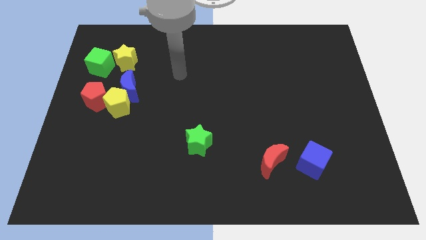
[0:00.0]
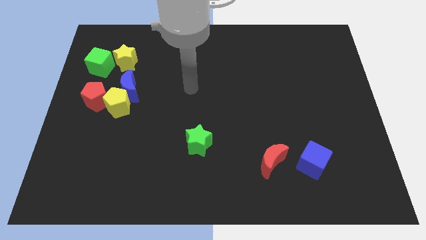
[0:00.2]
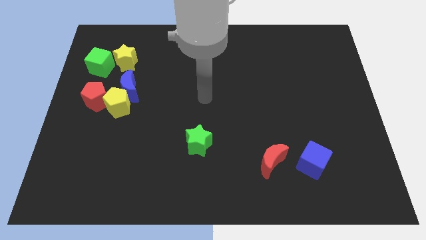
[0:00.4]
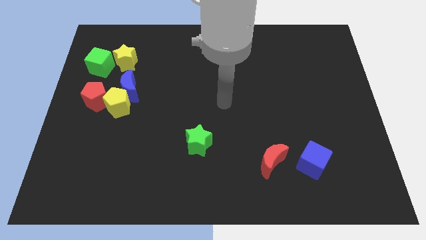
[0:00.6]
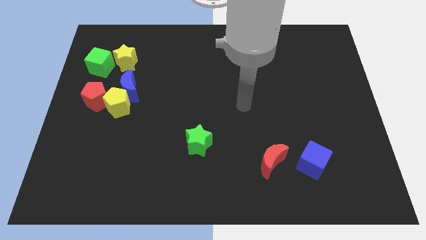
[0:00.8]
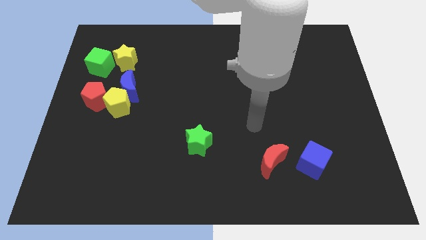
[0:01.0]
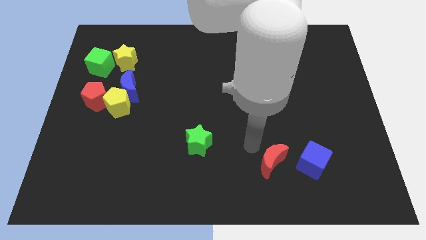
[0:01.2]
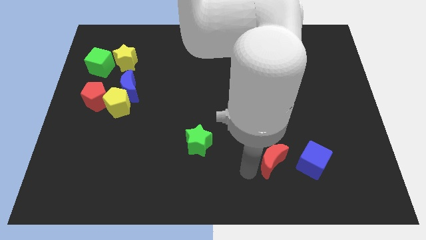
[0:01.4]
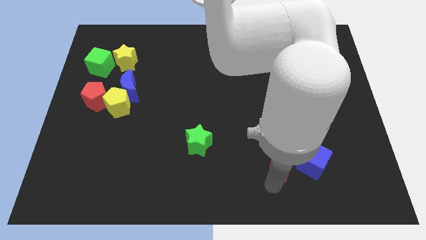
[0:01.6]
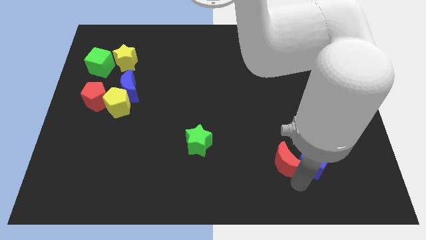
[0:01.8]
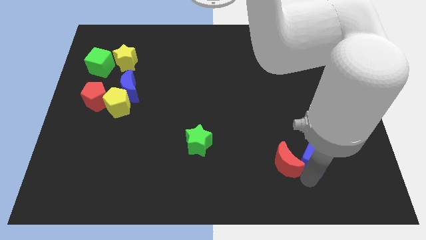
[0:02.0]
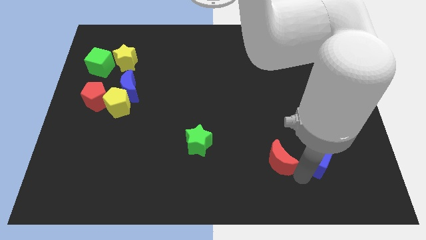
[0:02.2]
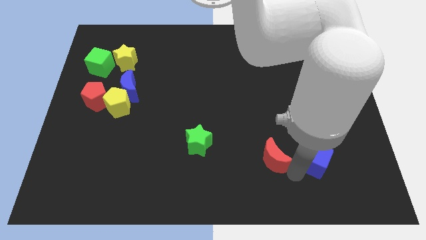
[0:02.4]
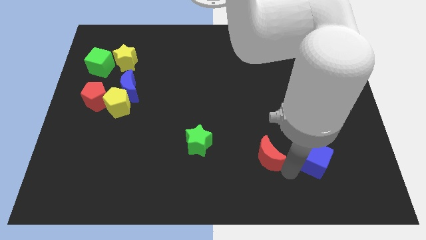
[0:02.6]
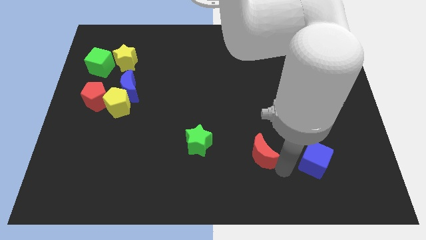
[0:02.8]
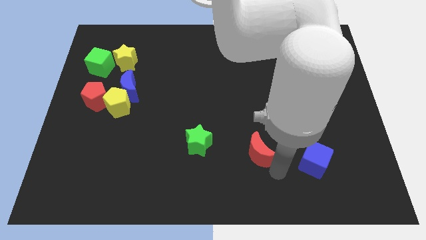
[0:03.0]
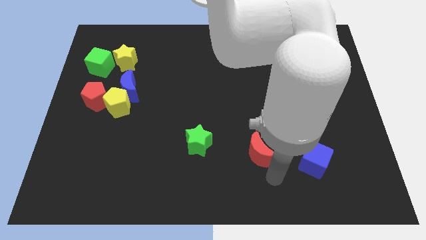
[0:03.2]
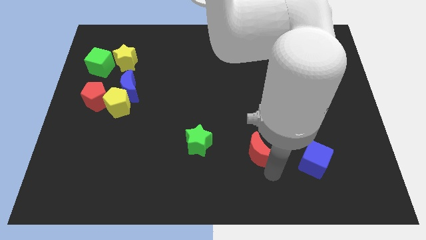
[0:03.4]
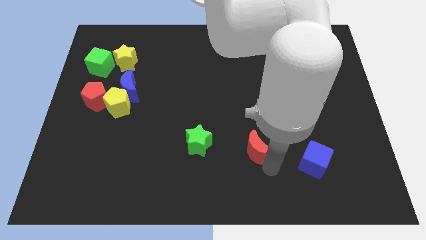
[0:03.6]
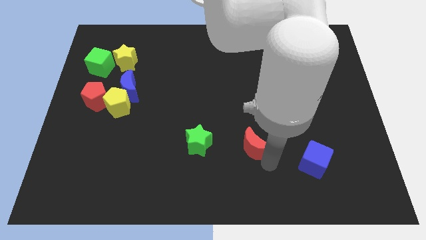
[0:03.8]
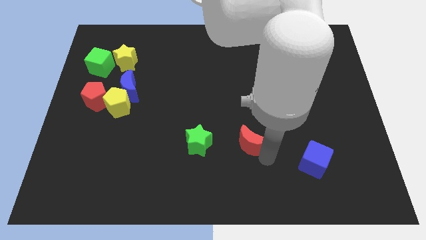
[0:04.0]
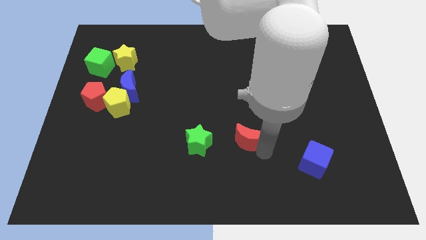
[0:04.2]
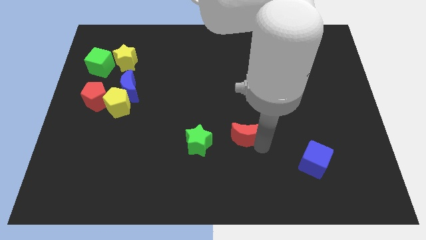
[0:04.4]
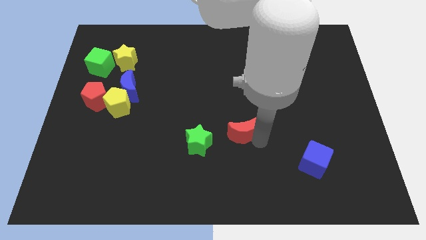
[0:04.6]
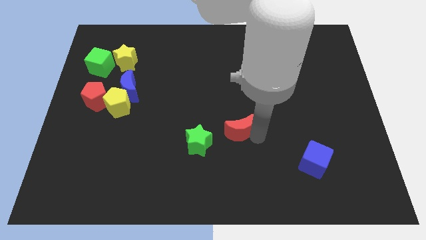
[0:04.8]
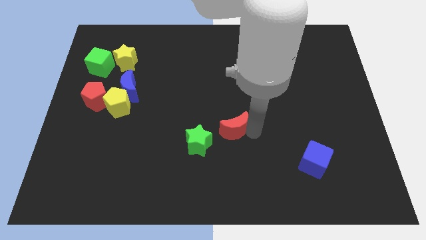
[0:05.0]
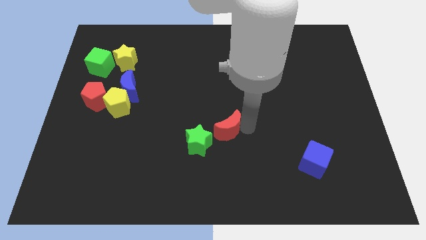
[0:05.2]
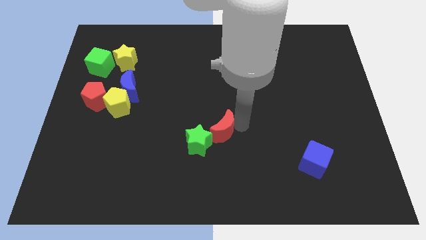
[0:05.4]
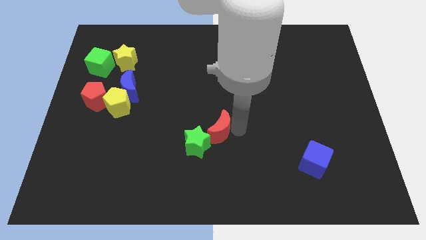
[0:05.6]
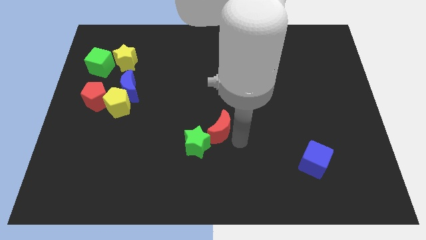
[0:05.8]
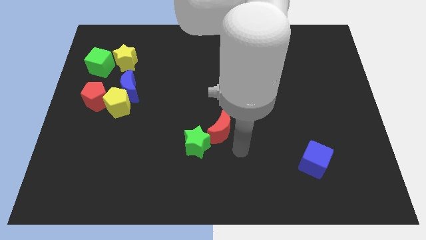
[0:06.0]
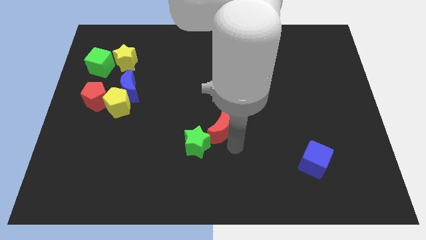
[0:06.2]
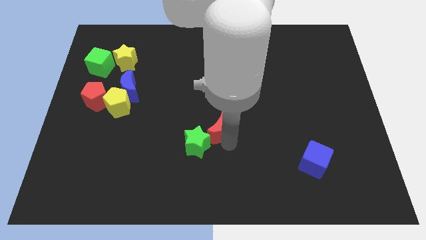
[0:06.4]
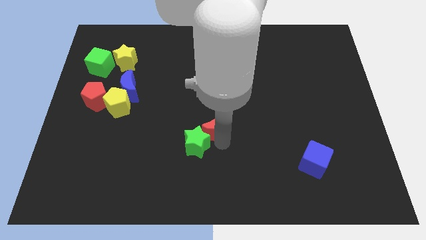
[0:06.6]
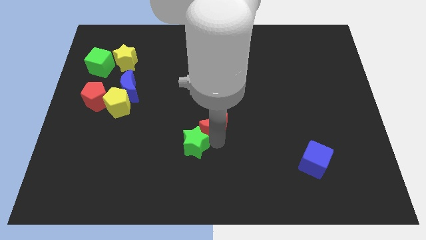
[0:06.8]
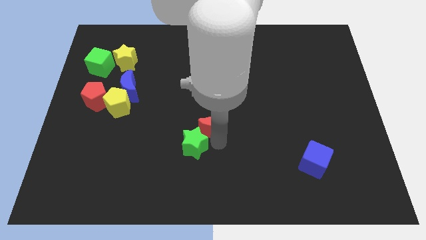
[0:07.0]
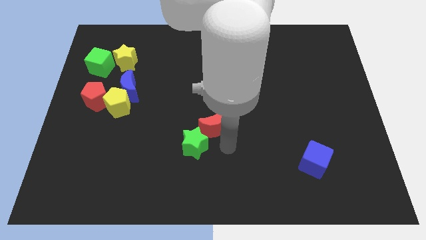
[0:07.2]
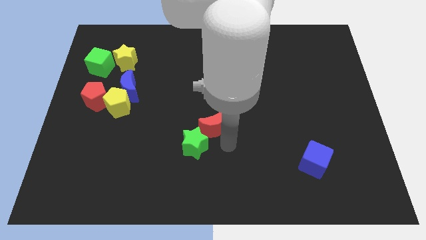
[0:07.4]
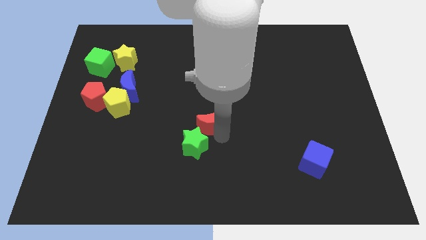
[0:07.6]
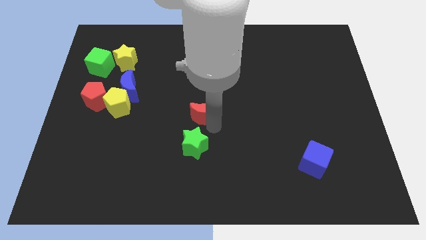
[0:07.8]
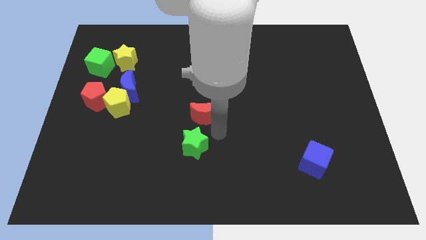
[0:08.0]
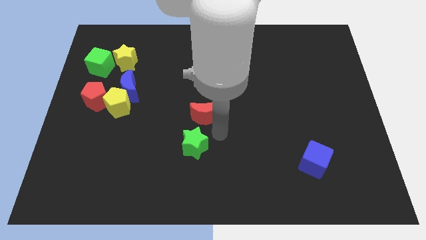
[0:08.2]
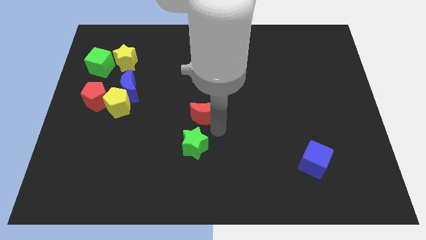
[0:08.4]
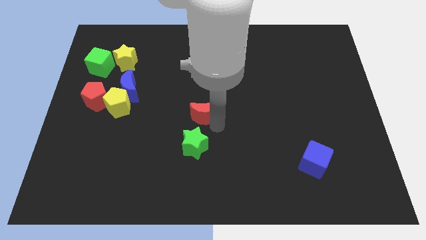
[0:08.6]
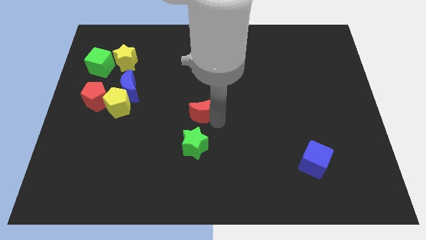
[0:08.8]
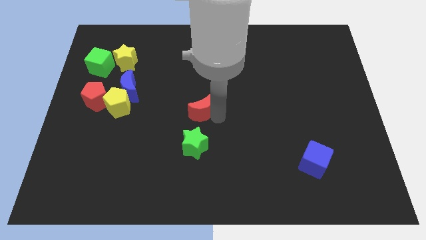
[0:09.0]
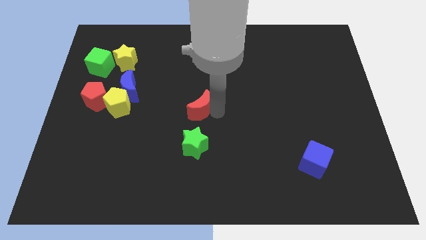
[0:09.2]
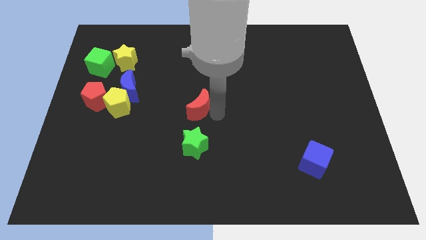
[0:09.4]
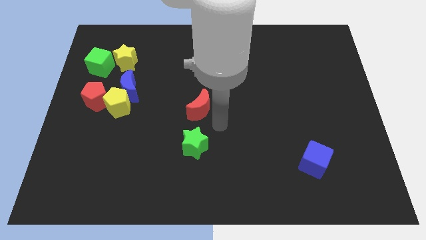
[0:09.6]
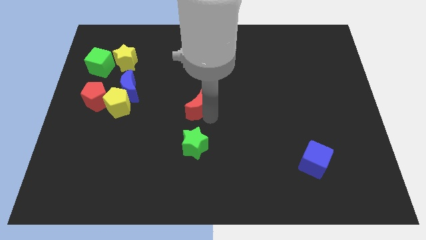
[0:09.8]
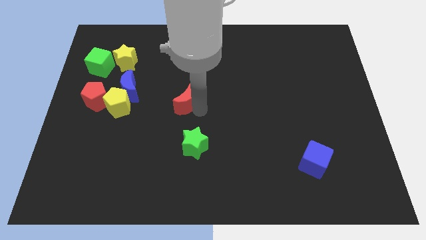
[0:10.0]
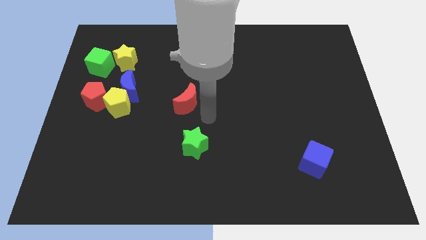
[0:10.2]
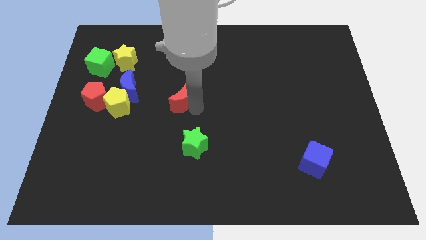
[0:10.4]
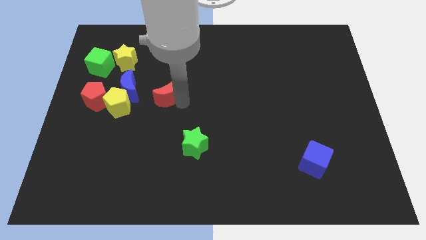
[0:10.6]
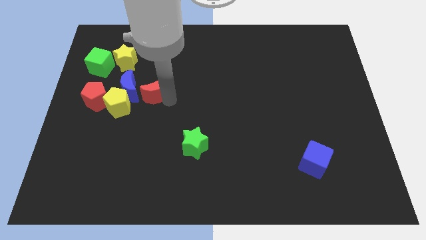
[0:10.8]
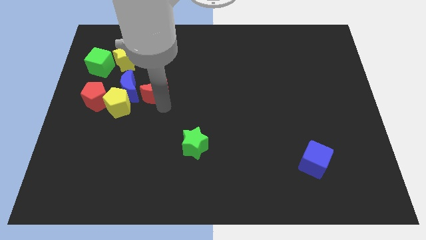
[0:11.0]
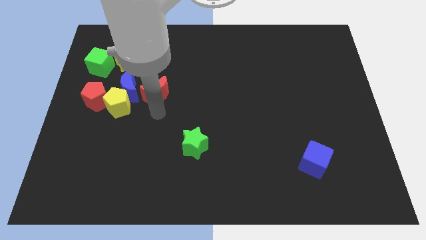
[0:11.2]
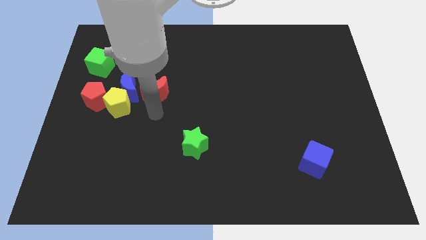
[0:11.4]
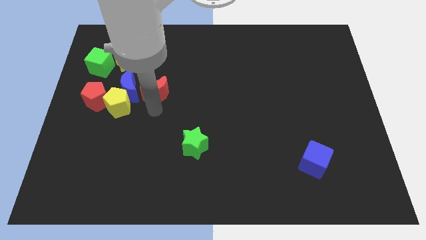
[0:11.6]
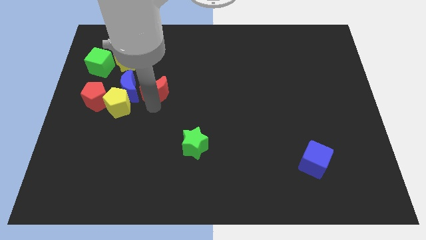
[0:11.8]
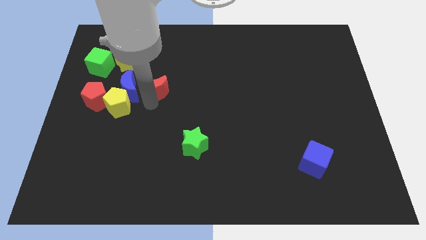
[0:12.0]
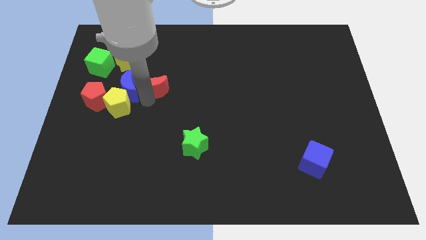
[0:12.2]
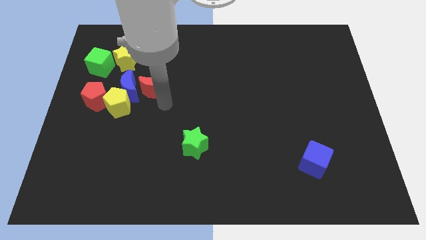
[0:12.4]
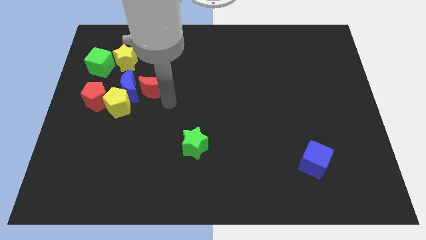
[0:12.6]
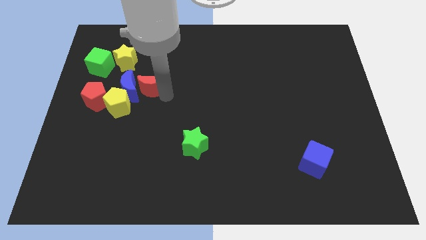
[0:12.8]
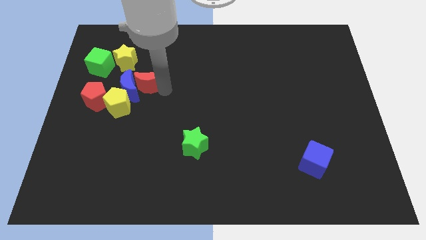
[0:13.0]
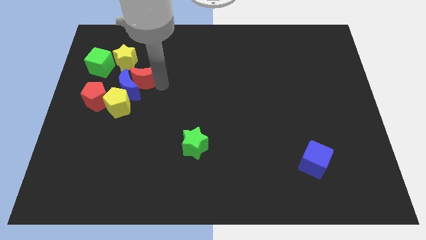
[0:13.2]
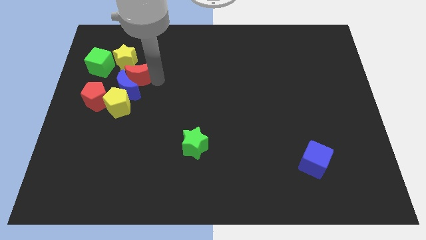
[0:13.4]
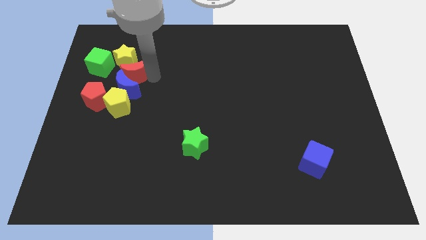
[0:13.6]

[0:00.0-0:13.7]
put the red moon to the yellow star

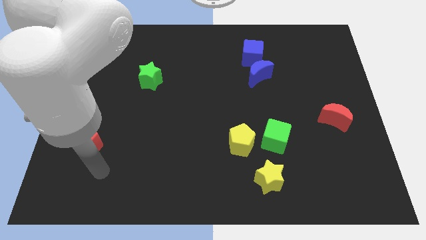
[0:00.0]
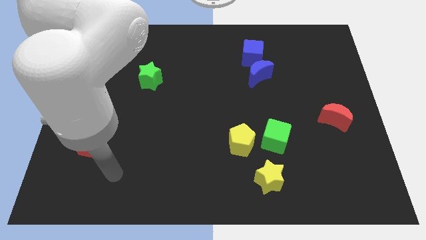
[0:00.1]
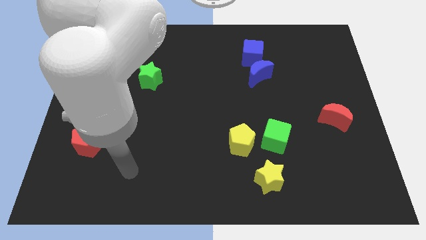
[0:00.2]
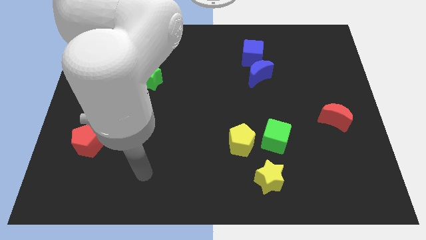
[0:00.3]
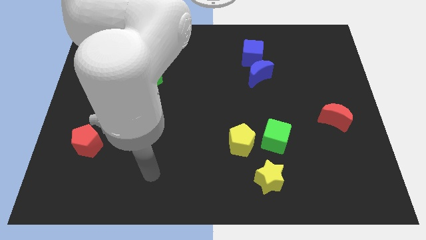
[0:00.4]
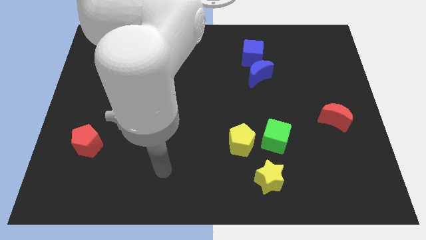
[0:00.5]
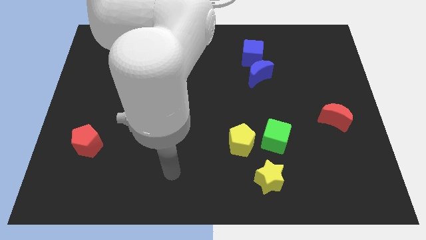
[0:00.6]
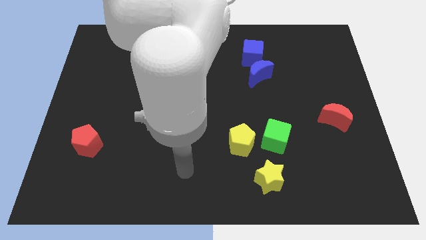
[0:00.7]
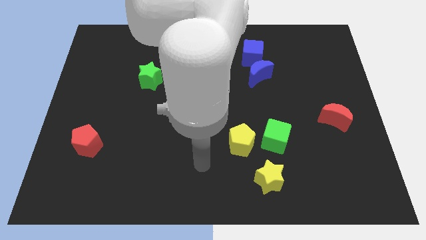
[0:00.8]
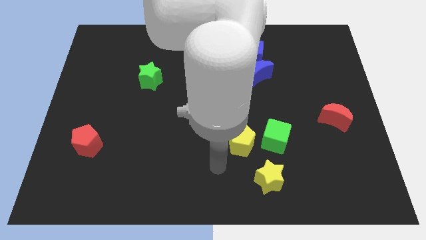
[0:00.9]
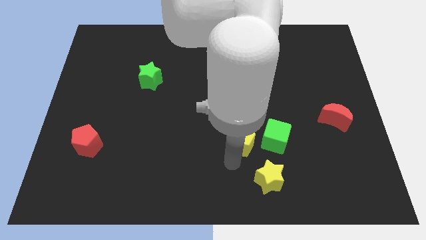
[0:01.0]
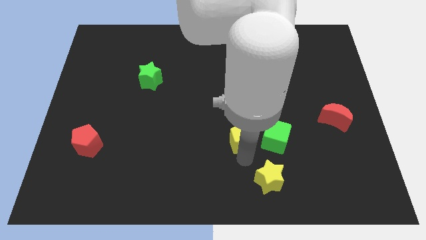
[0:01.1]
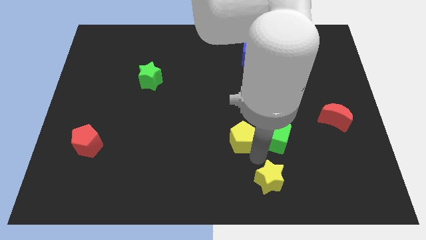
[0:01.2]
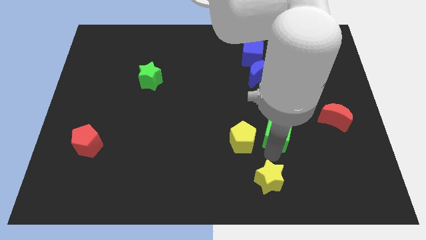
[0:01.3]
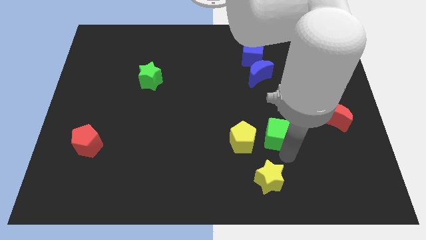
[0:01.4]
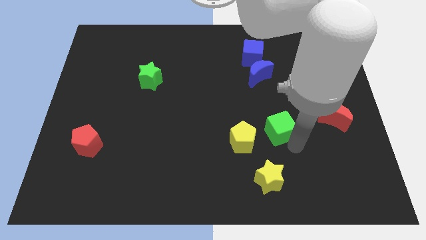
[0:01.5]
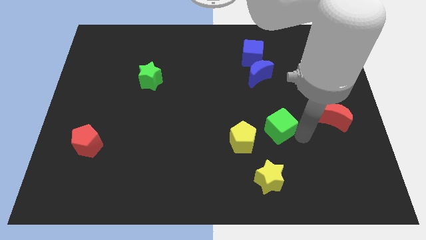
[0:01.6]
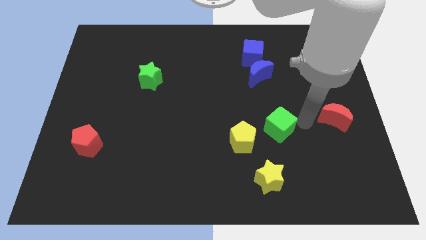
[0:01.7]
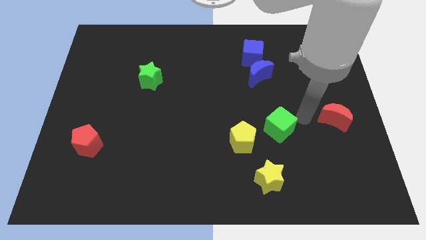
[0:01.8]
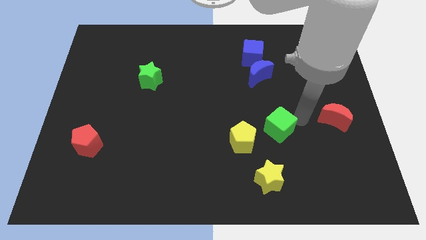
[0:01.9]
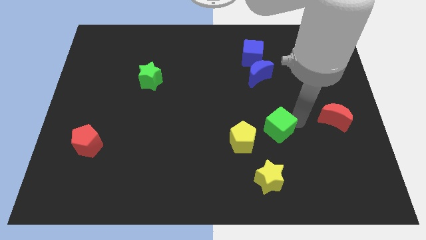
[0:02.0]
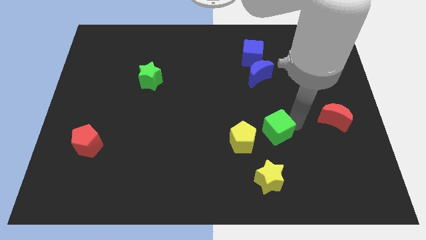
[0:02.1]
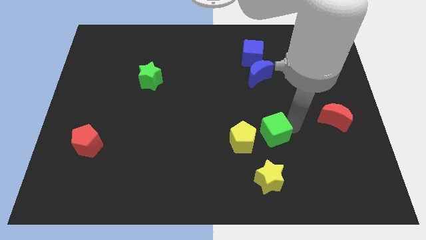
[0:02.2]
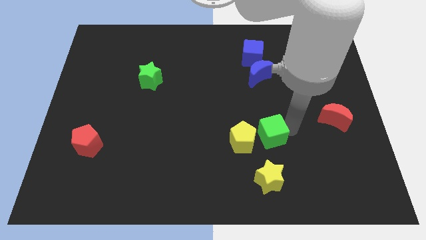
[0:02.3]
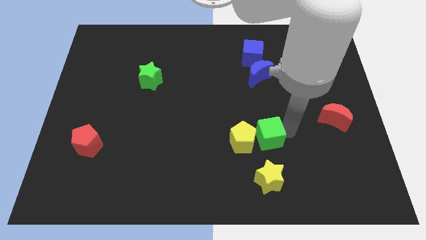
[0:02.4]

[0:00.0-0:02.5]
slide the green cube towards the yellow pentagon
